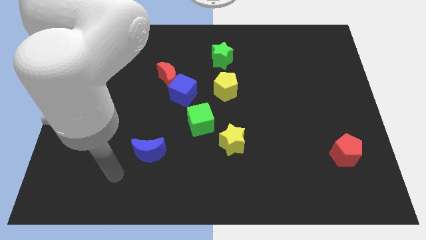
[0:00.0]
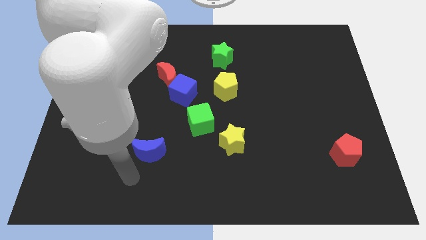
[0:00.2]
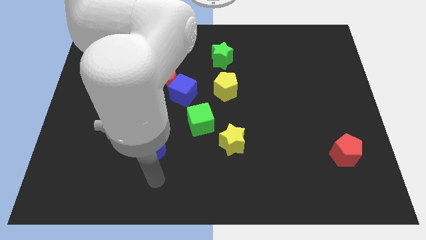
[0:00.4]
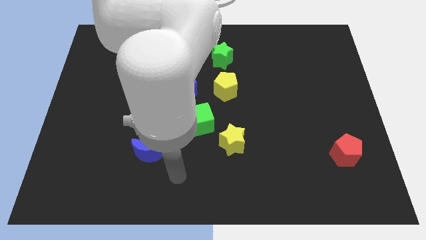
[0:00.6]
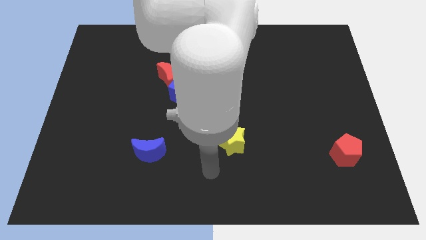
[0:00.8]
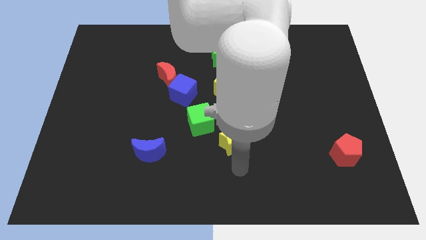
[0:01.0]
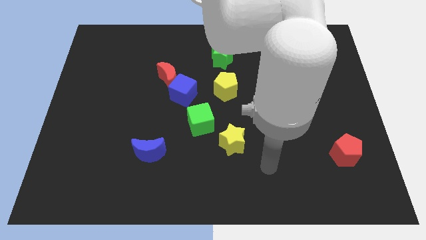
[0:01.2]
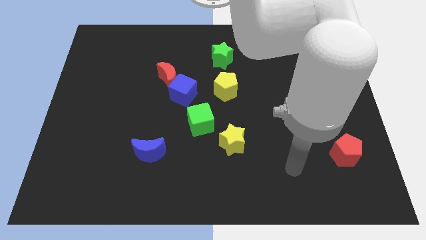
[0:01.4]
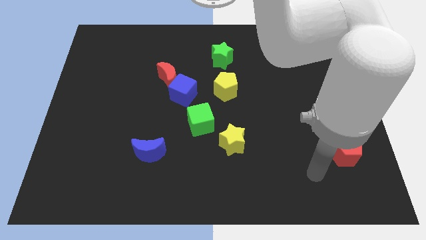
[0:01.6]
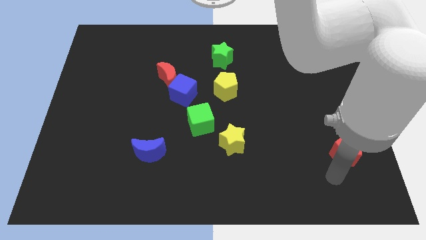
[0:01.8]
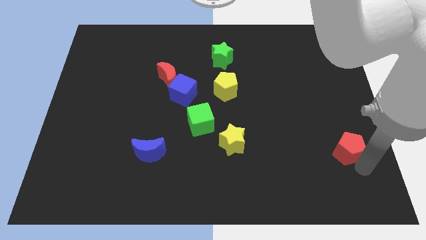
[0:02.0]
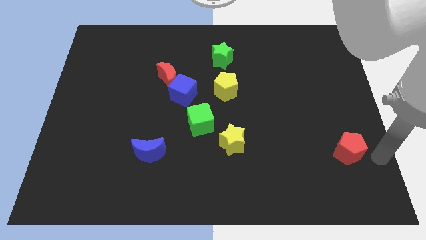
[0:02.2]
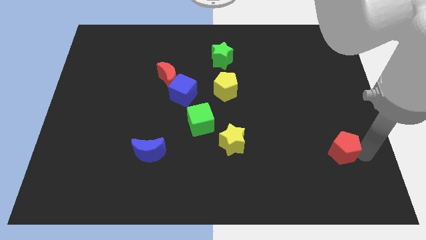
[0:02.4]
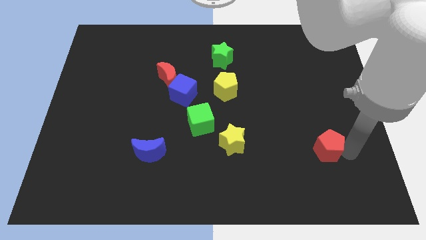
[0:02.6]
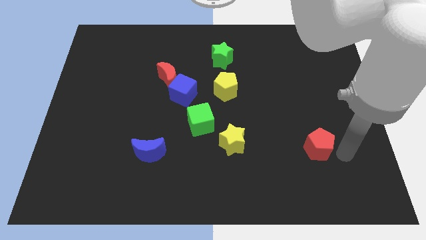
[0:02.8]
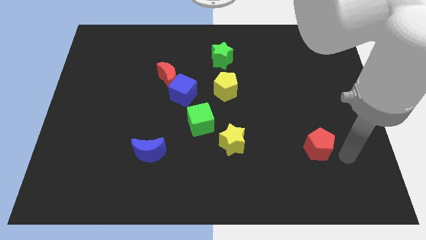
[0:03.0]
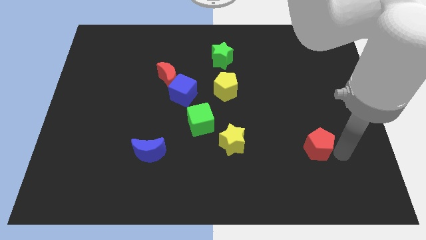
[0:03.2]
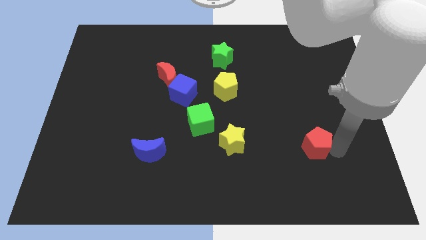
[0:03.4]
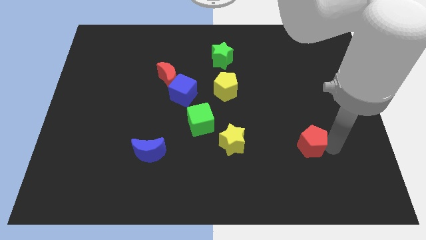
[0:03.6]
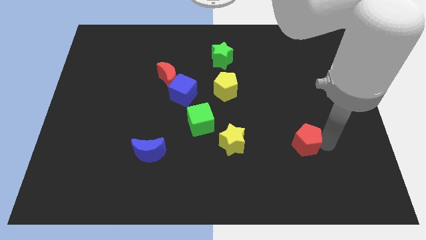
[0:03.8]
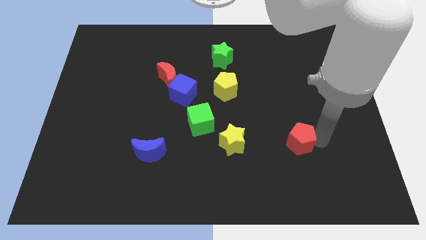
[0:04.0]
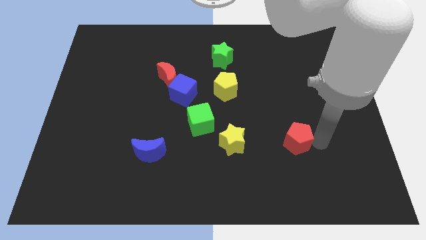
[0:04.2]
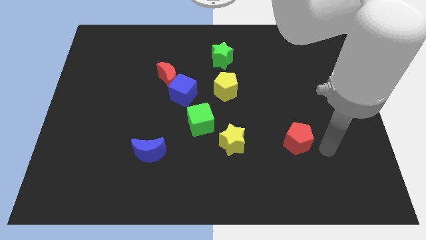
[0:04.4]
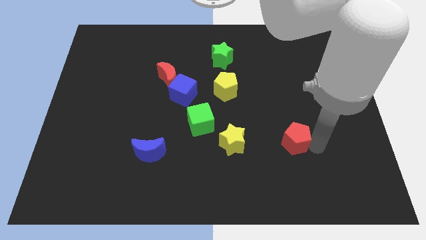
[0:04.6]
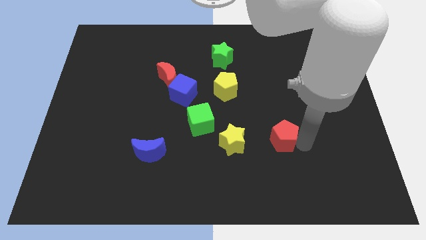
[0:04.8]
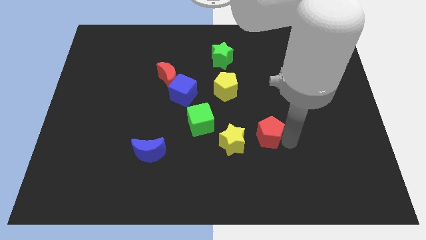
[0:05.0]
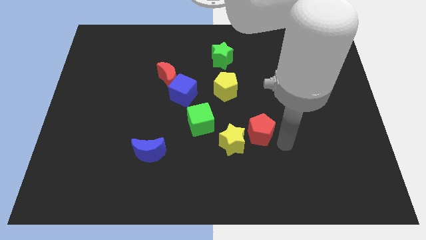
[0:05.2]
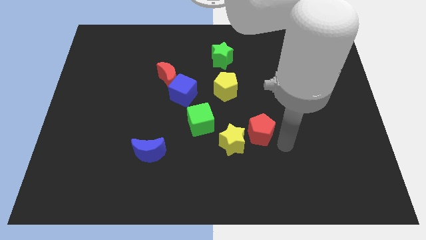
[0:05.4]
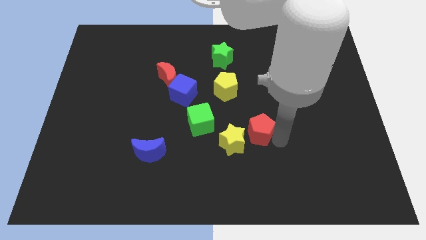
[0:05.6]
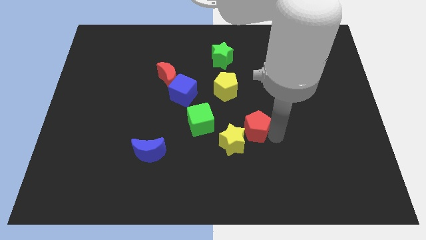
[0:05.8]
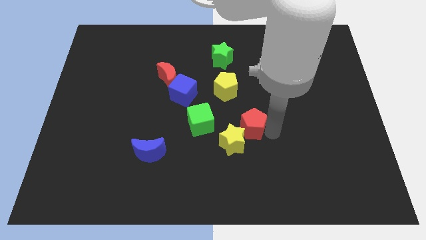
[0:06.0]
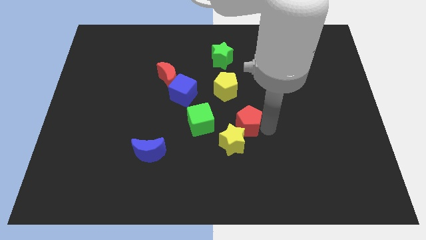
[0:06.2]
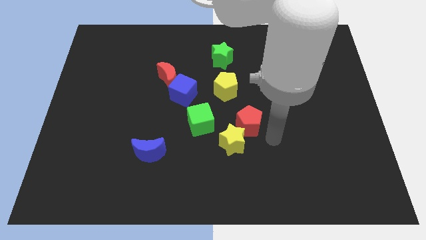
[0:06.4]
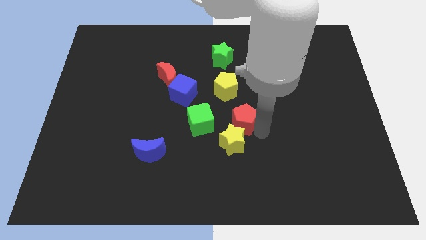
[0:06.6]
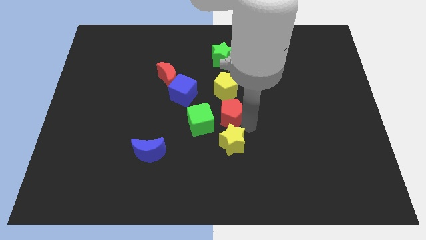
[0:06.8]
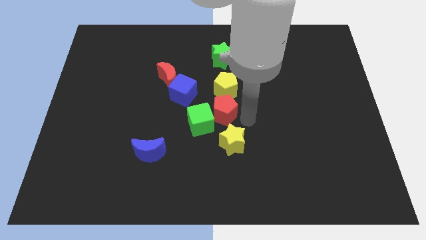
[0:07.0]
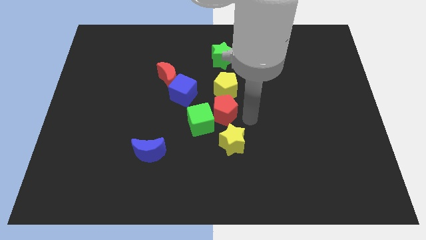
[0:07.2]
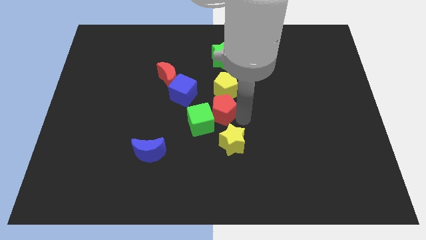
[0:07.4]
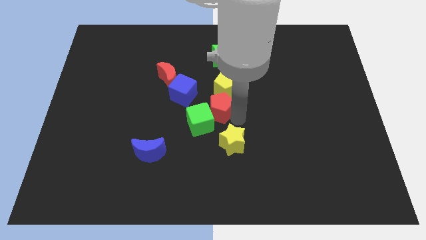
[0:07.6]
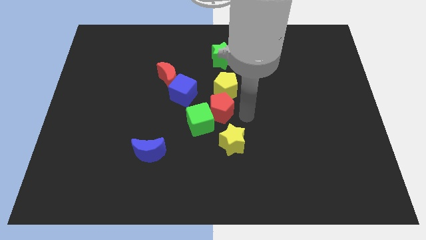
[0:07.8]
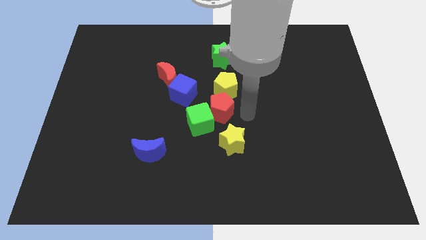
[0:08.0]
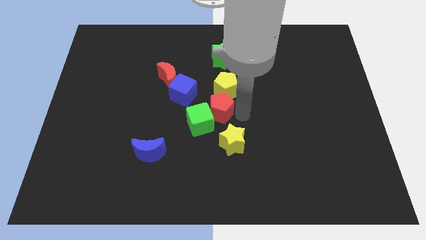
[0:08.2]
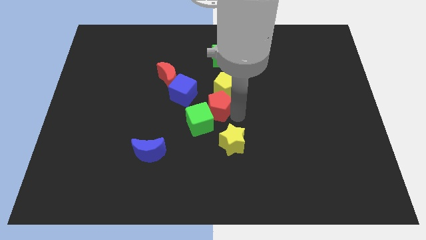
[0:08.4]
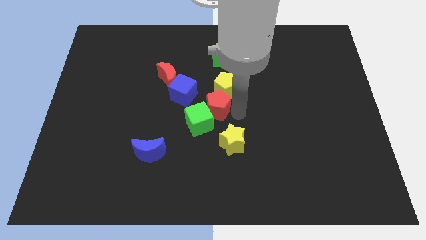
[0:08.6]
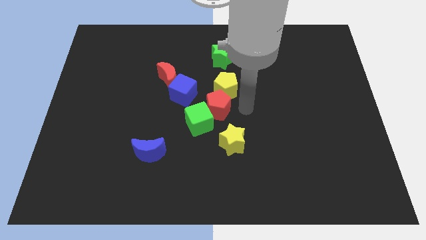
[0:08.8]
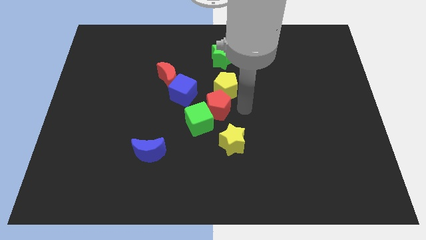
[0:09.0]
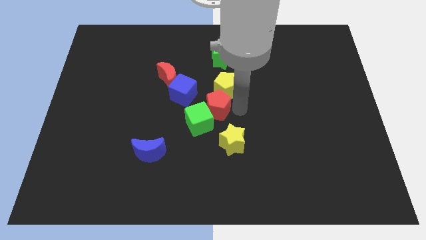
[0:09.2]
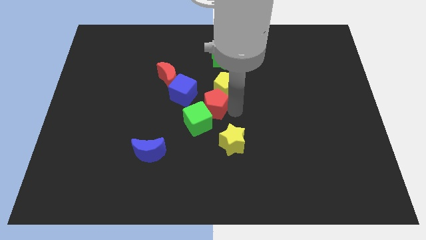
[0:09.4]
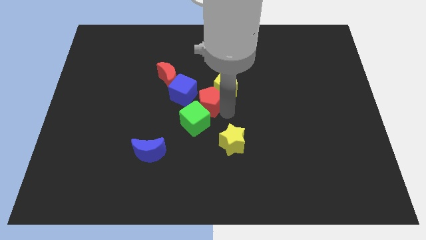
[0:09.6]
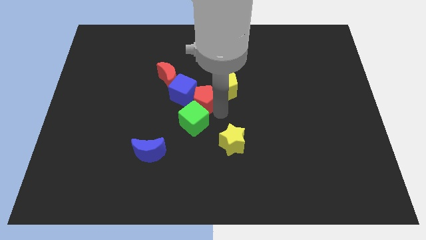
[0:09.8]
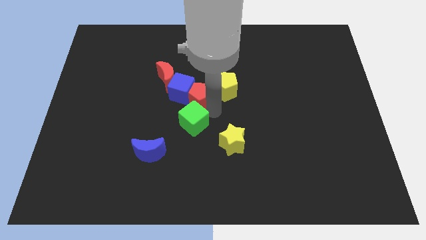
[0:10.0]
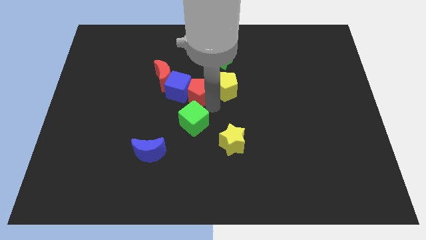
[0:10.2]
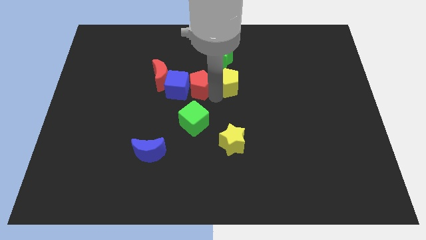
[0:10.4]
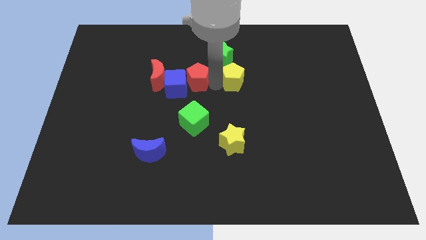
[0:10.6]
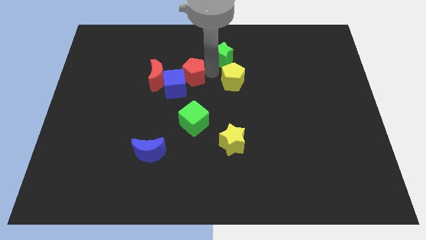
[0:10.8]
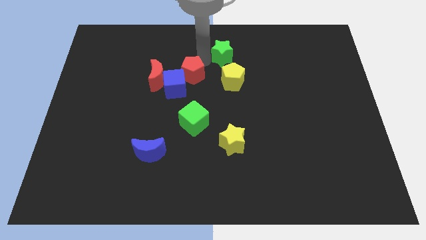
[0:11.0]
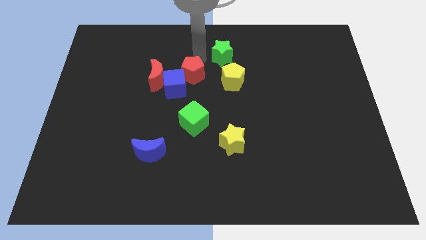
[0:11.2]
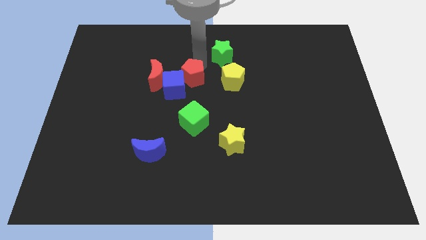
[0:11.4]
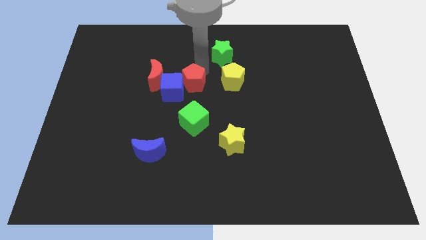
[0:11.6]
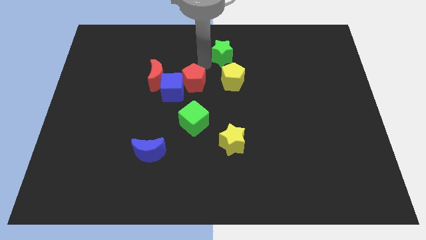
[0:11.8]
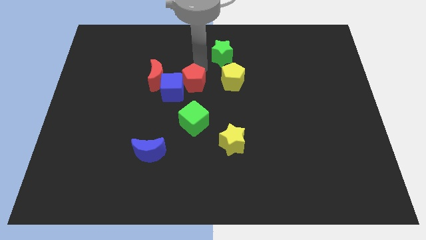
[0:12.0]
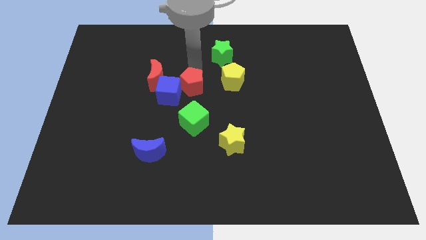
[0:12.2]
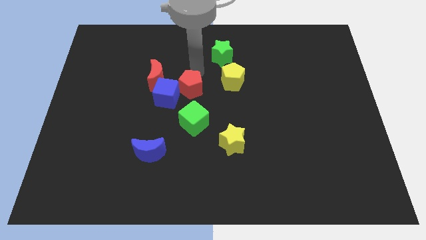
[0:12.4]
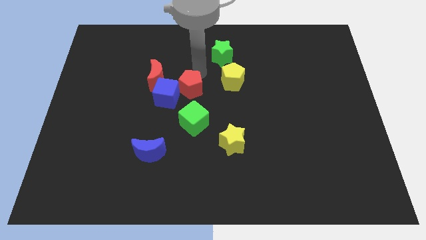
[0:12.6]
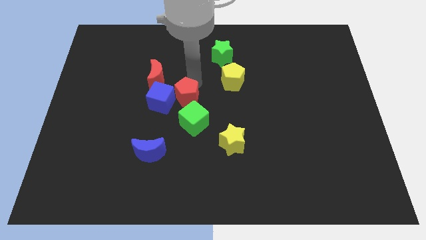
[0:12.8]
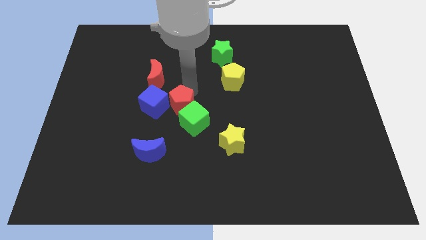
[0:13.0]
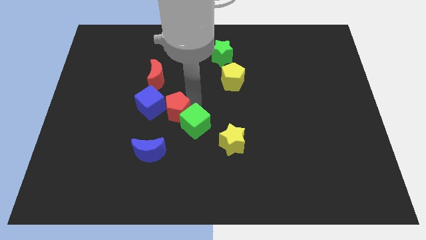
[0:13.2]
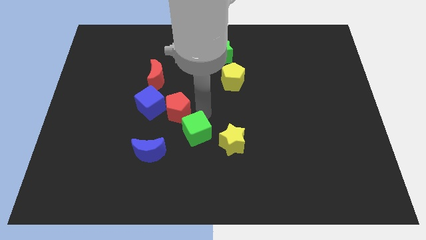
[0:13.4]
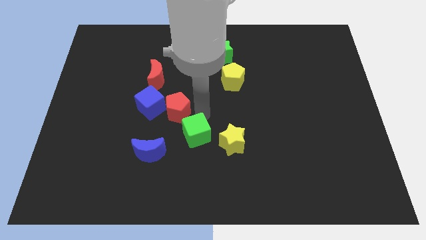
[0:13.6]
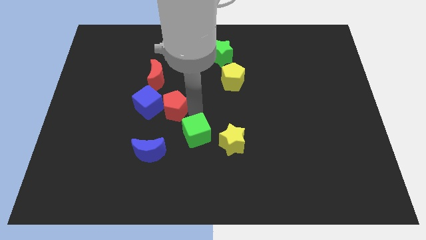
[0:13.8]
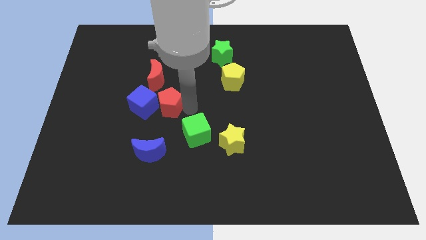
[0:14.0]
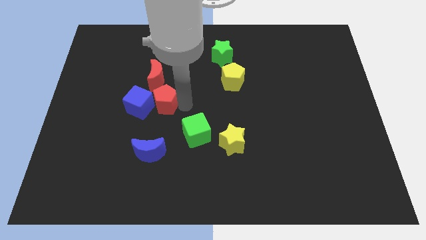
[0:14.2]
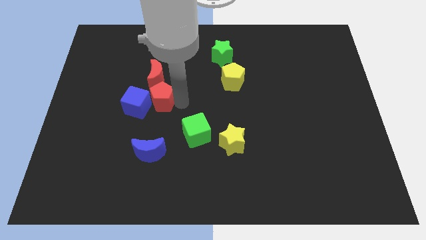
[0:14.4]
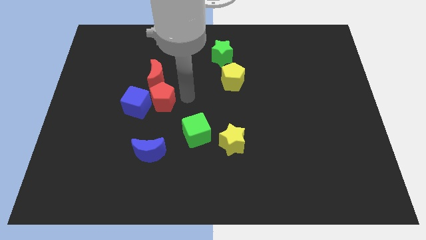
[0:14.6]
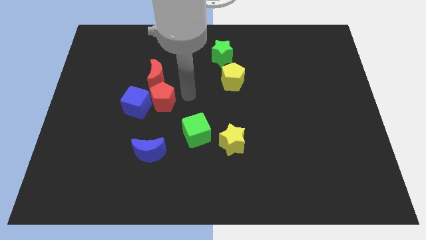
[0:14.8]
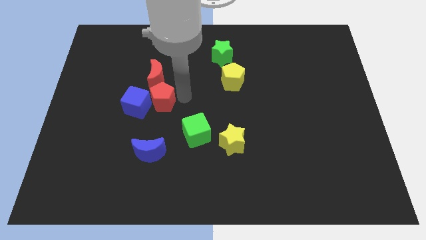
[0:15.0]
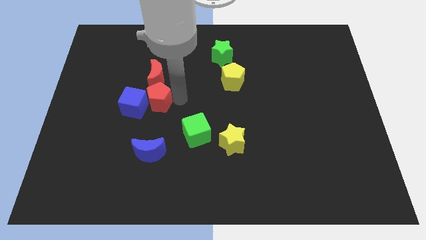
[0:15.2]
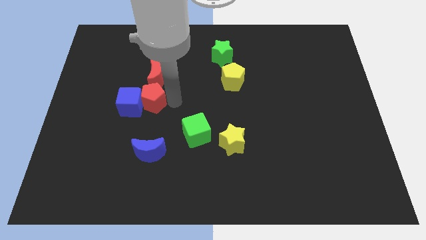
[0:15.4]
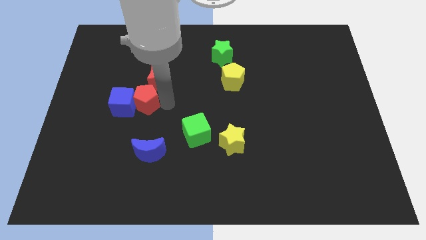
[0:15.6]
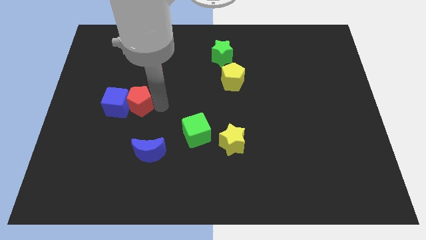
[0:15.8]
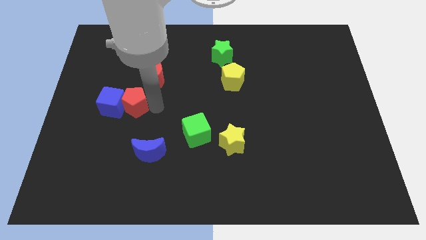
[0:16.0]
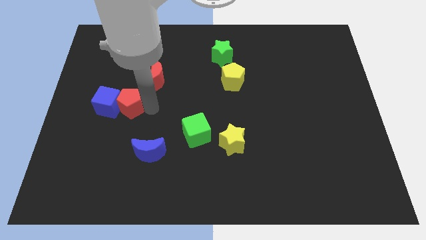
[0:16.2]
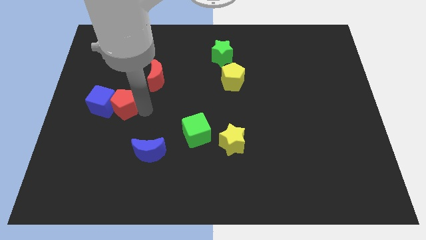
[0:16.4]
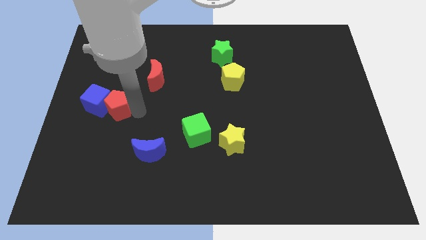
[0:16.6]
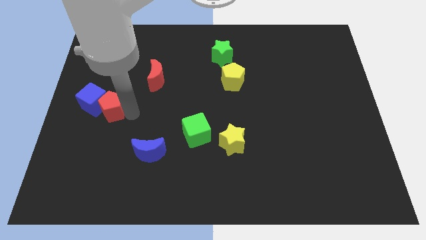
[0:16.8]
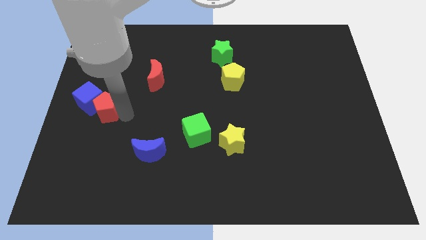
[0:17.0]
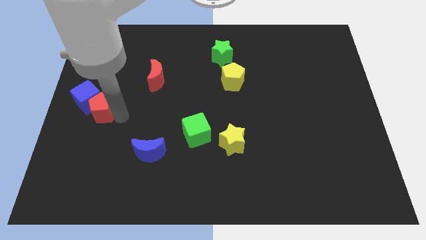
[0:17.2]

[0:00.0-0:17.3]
put the red pentagon to the left side of the board
